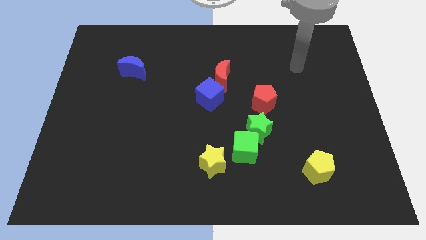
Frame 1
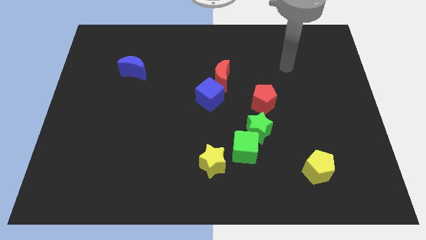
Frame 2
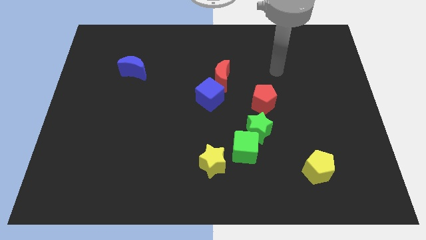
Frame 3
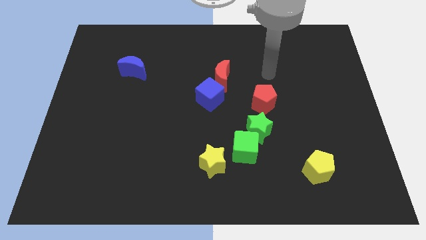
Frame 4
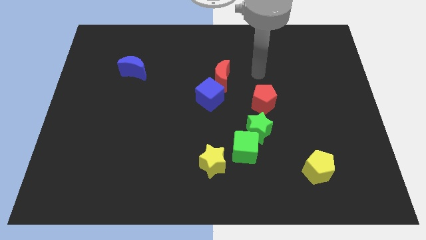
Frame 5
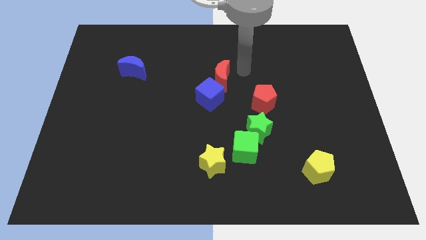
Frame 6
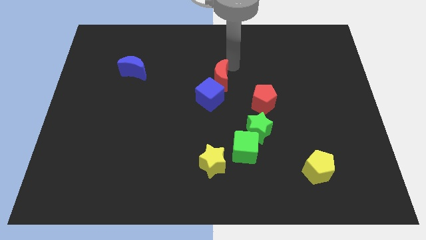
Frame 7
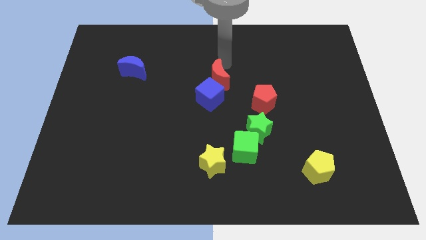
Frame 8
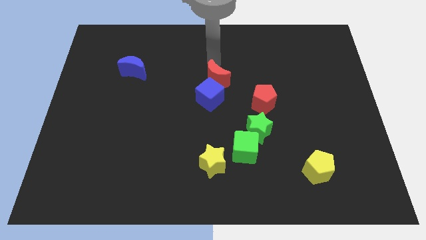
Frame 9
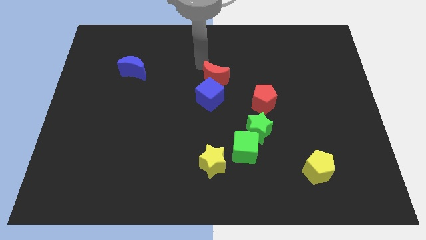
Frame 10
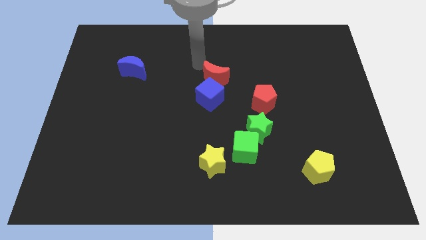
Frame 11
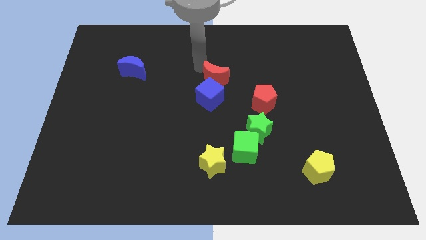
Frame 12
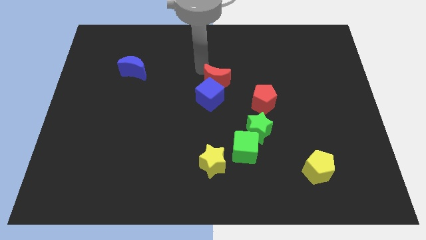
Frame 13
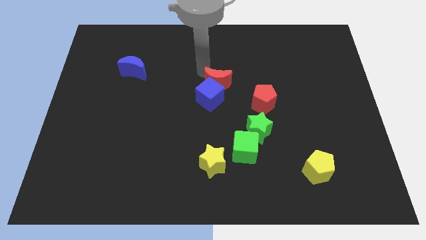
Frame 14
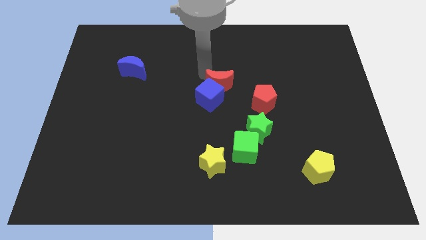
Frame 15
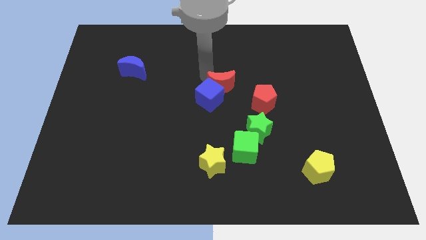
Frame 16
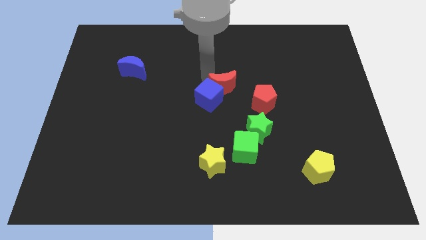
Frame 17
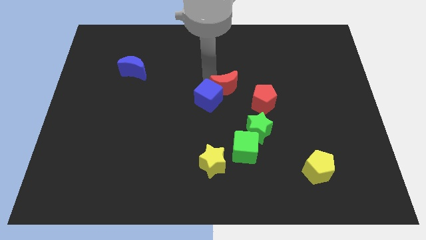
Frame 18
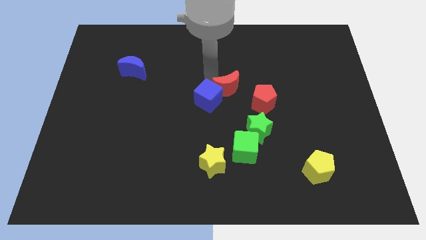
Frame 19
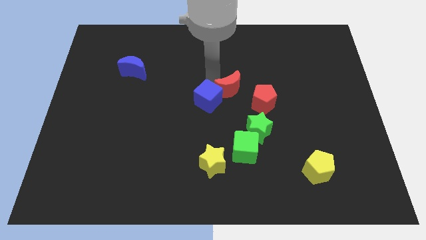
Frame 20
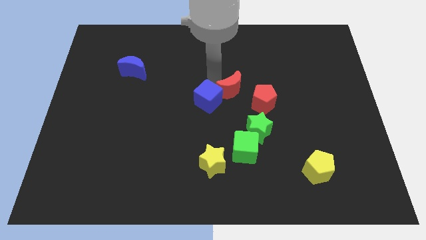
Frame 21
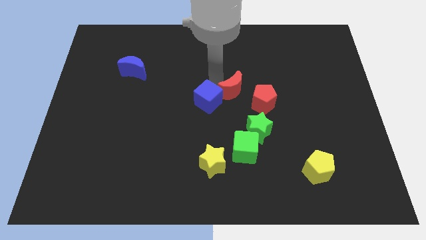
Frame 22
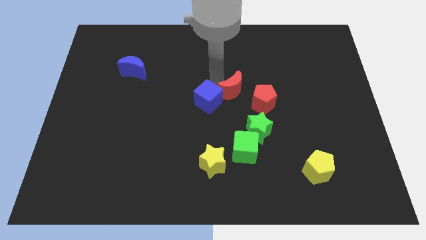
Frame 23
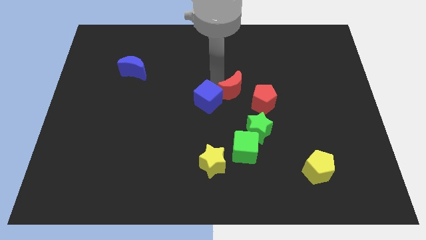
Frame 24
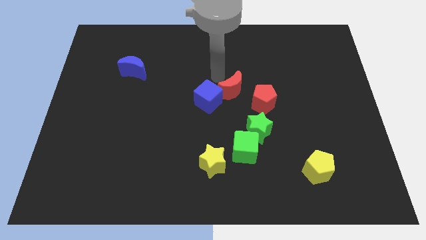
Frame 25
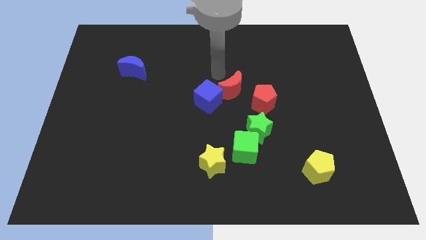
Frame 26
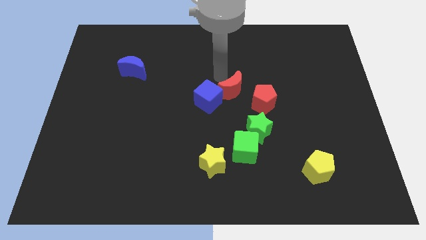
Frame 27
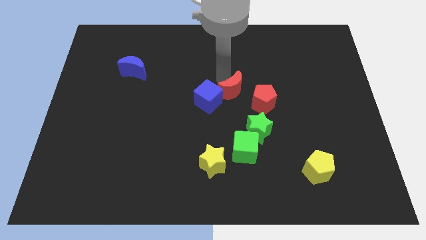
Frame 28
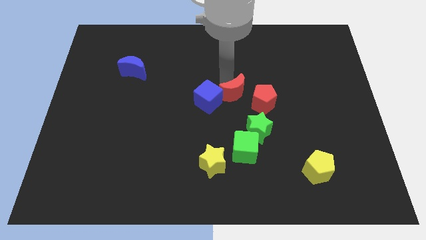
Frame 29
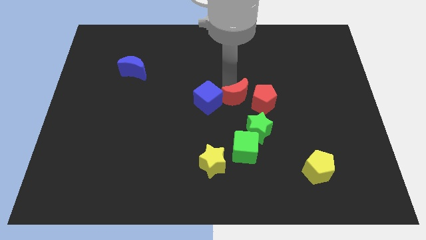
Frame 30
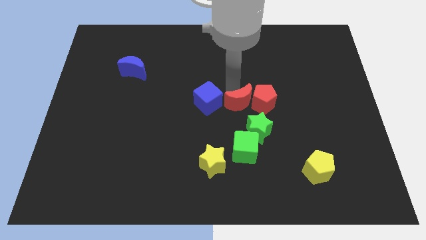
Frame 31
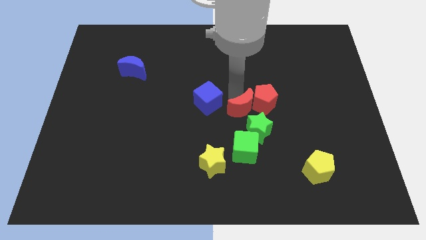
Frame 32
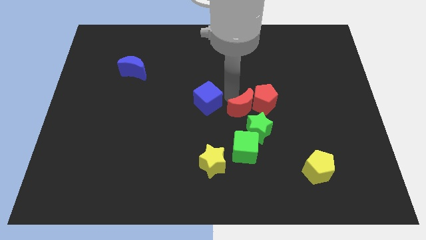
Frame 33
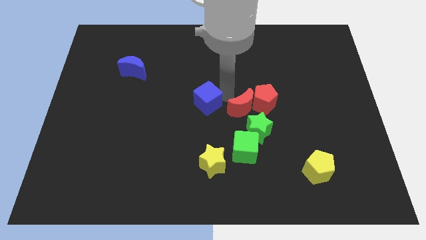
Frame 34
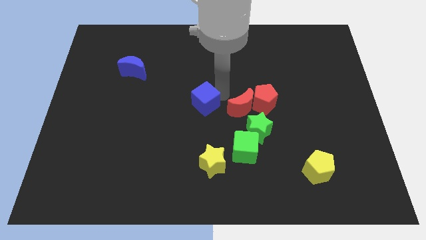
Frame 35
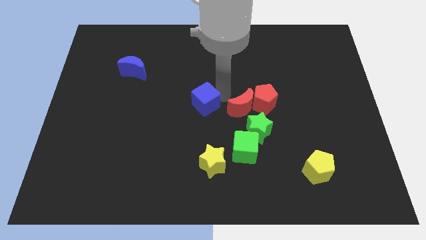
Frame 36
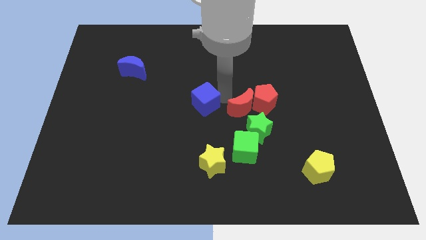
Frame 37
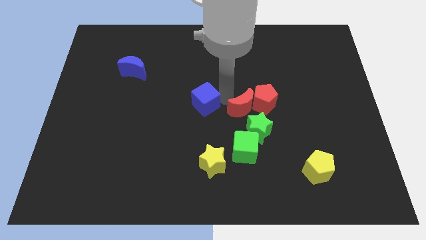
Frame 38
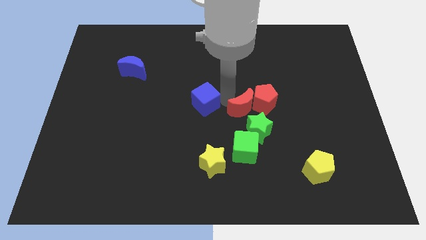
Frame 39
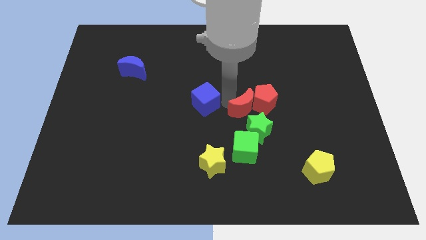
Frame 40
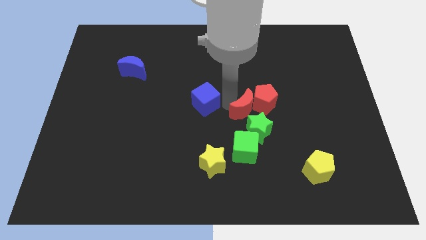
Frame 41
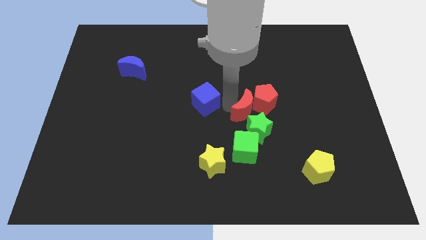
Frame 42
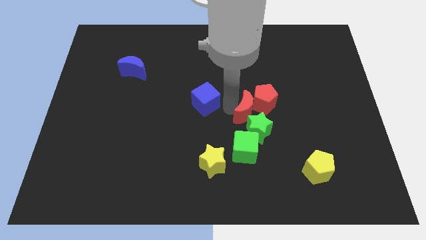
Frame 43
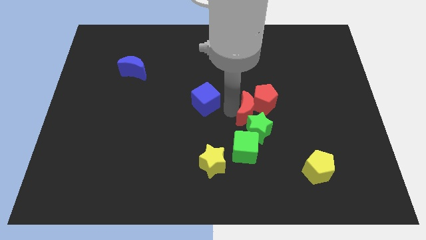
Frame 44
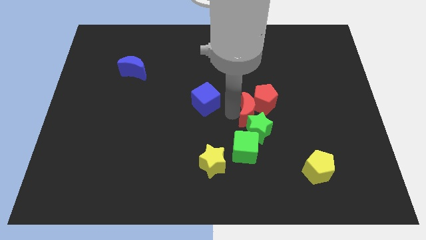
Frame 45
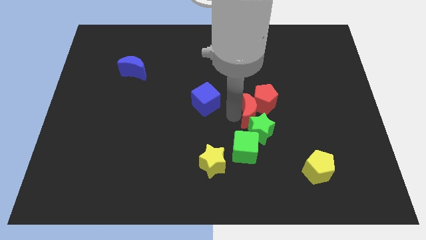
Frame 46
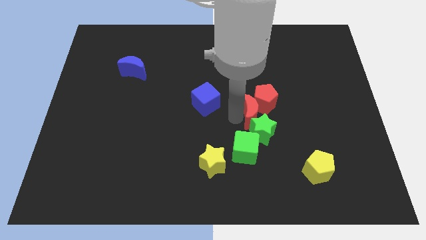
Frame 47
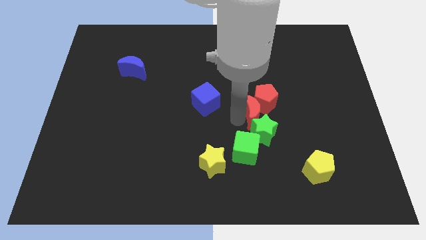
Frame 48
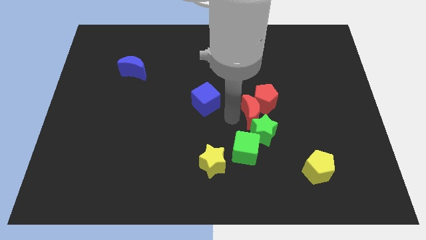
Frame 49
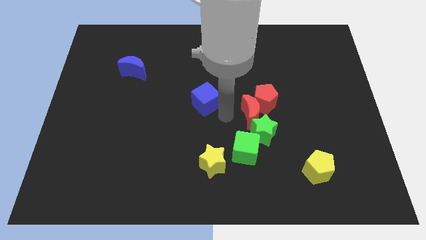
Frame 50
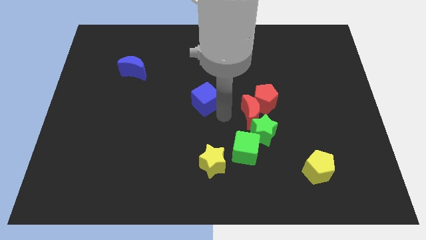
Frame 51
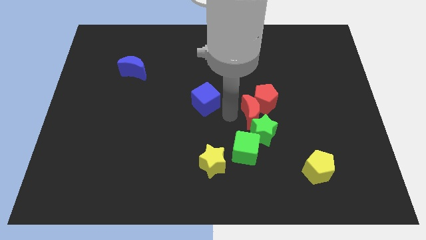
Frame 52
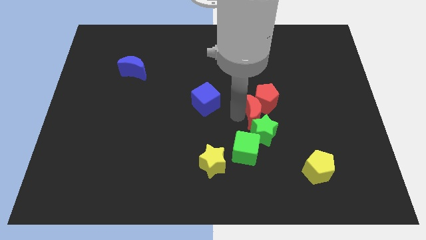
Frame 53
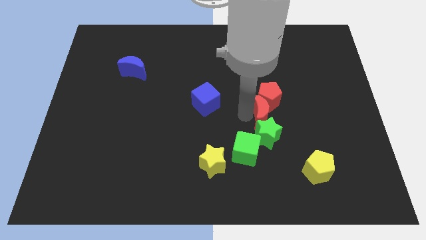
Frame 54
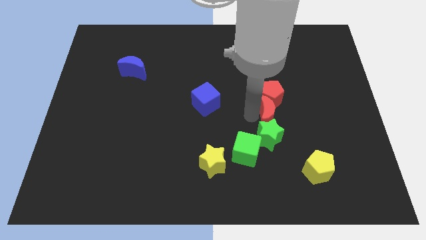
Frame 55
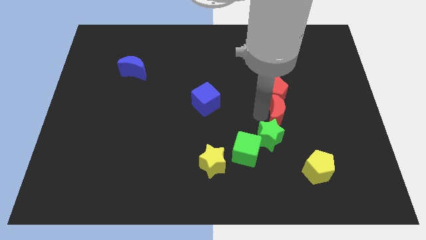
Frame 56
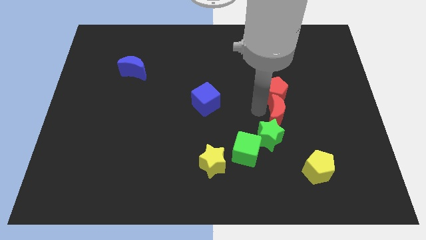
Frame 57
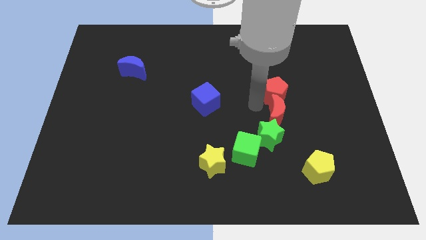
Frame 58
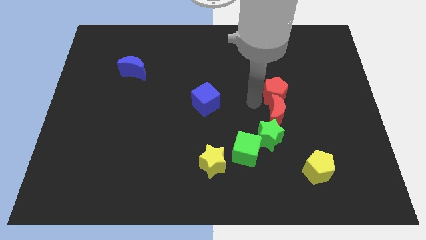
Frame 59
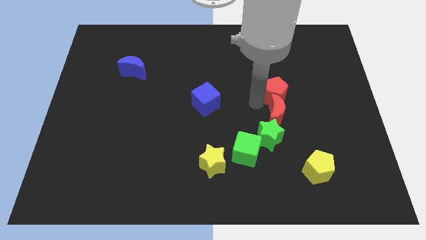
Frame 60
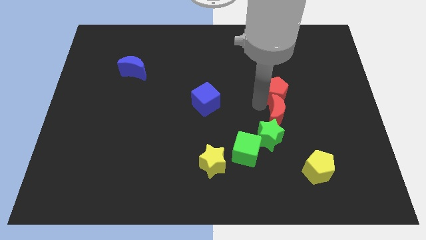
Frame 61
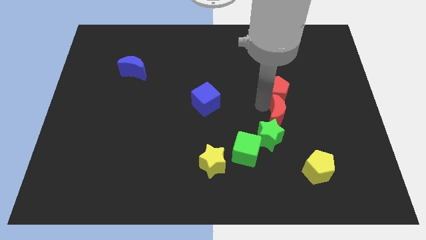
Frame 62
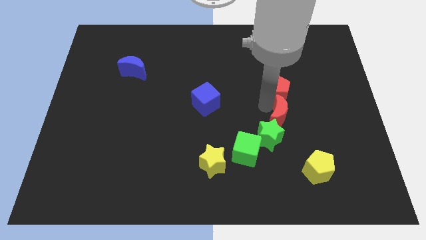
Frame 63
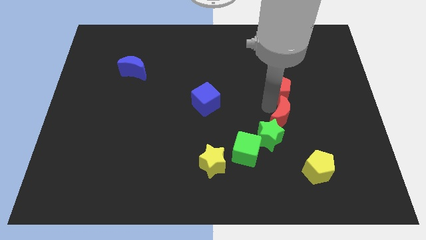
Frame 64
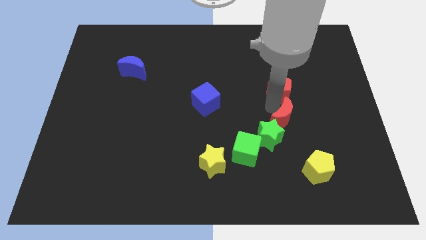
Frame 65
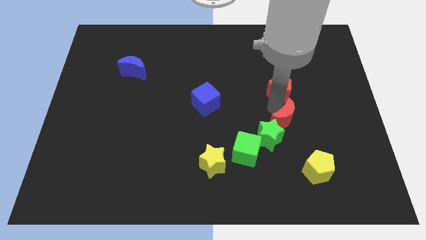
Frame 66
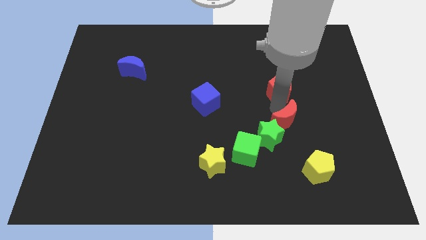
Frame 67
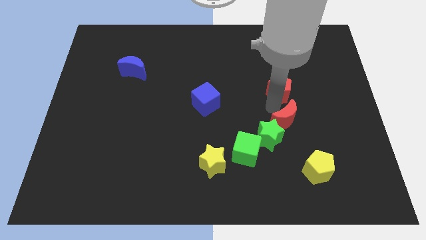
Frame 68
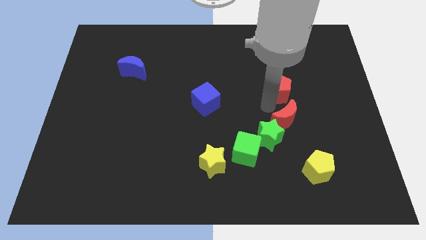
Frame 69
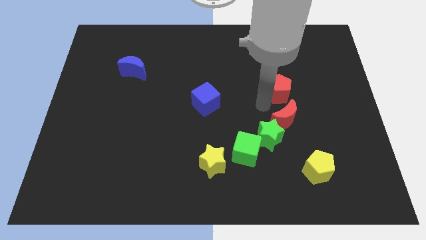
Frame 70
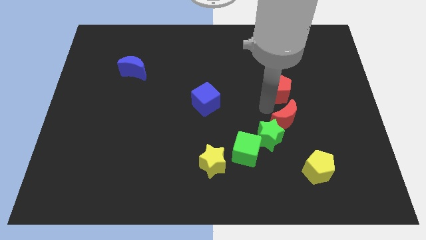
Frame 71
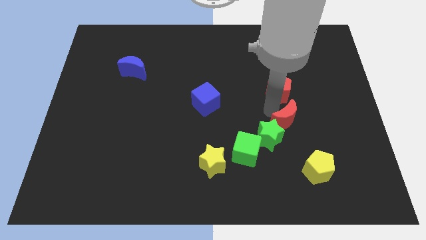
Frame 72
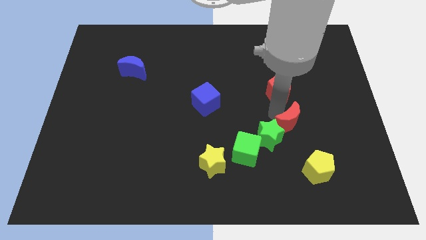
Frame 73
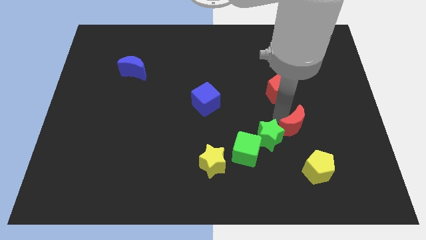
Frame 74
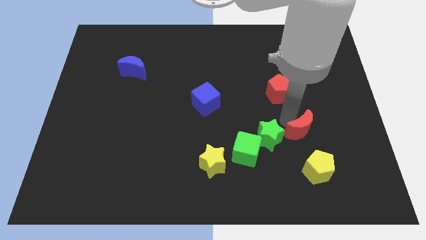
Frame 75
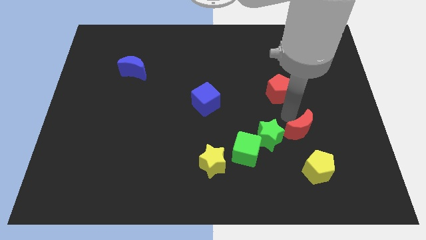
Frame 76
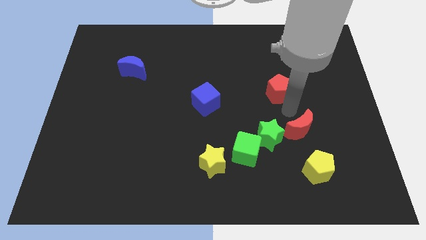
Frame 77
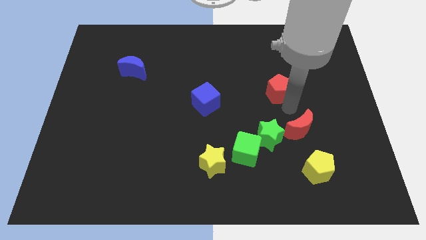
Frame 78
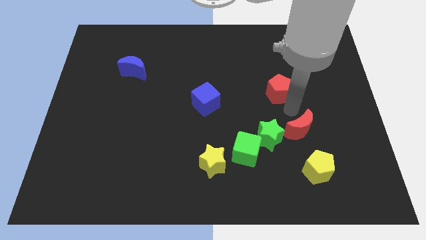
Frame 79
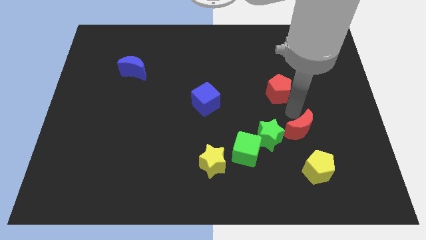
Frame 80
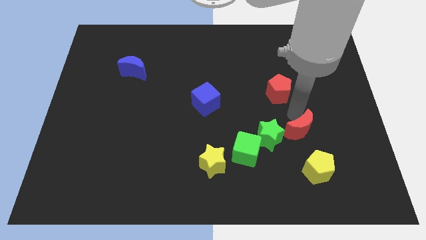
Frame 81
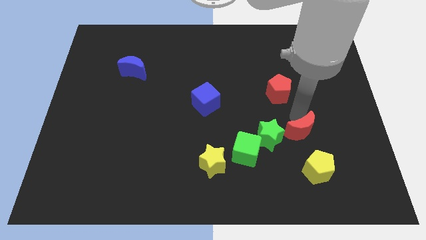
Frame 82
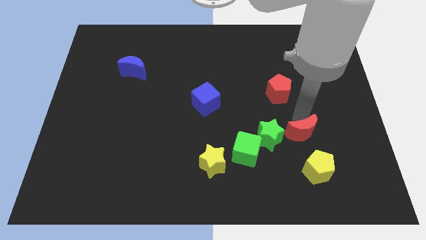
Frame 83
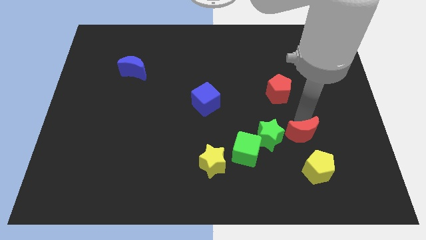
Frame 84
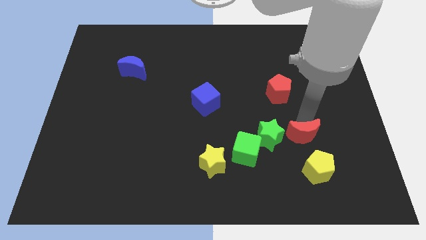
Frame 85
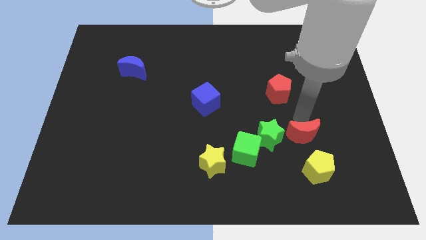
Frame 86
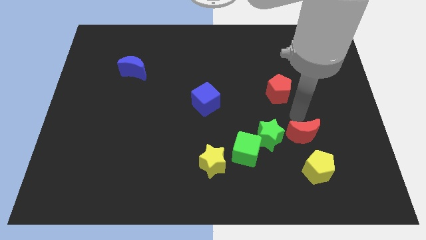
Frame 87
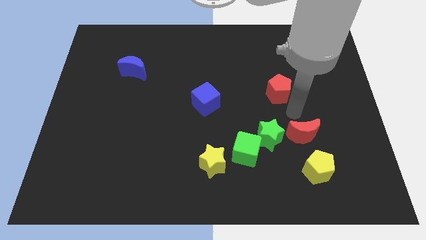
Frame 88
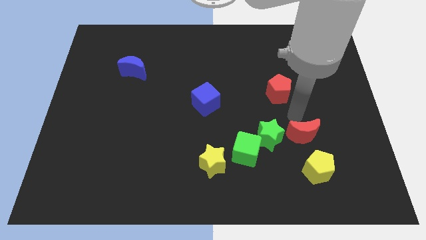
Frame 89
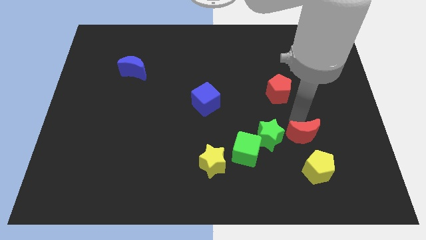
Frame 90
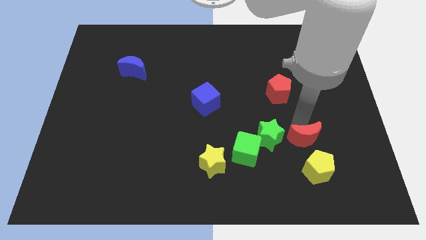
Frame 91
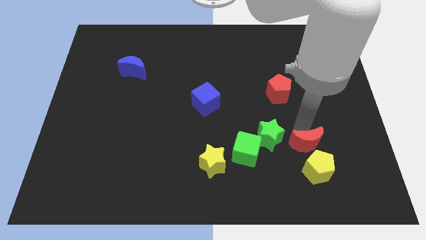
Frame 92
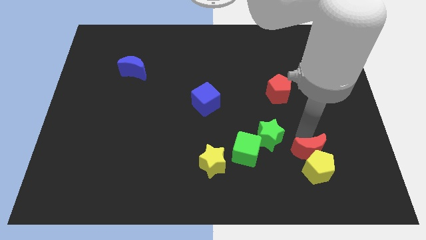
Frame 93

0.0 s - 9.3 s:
push the red moon to the yellow pentagon
